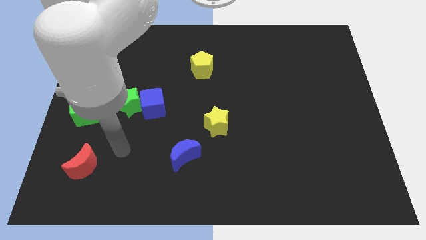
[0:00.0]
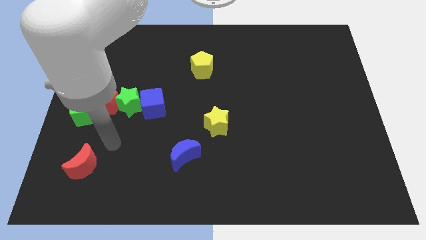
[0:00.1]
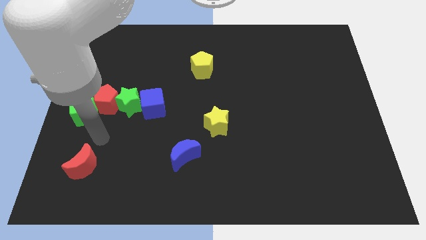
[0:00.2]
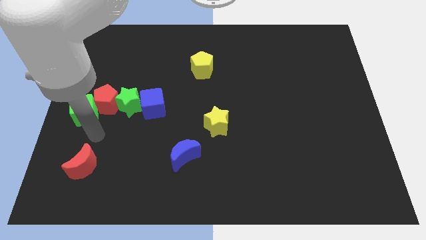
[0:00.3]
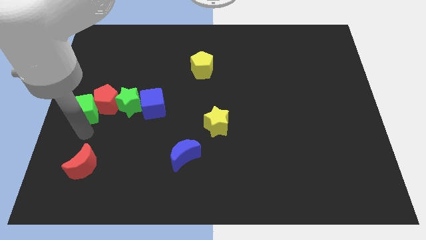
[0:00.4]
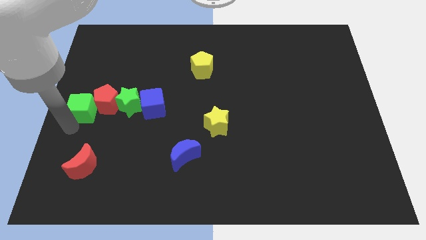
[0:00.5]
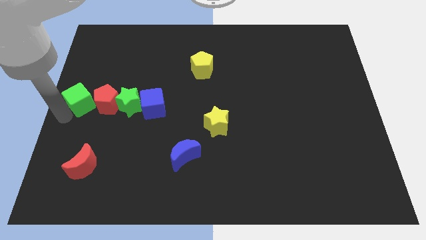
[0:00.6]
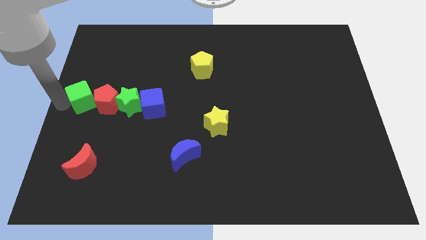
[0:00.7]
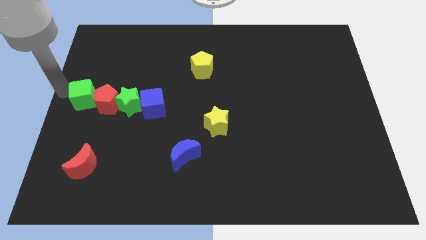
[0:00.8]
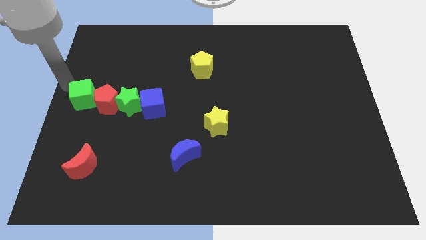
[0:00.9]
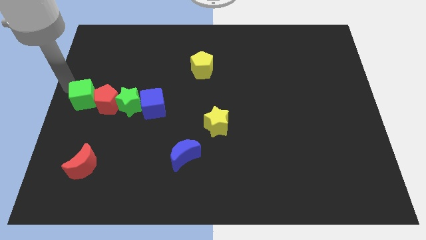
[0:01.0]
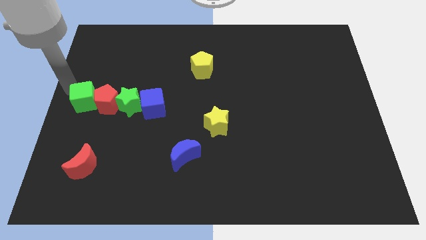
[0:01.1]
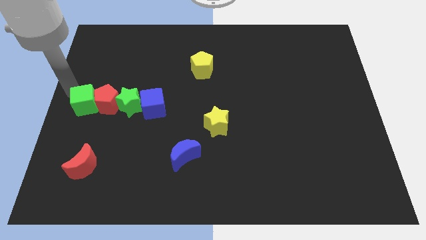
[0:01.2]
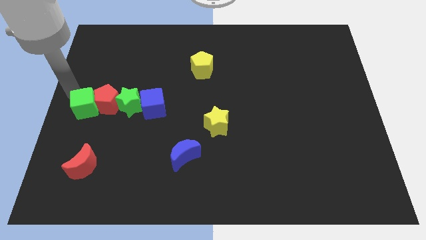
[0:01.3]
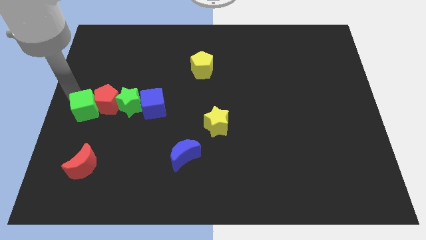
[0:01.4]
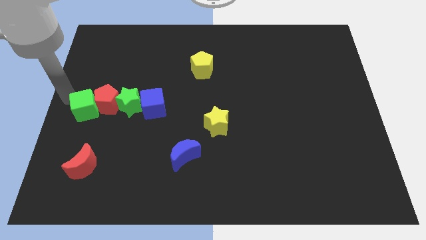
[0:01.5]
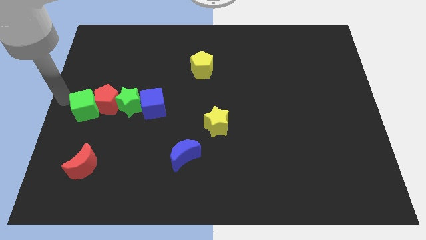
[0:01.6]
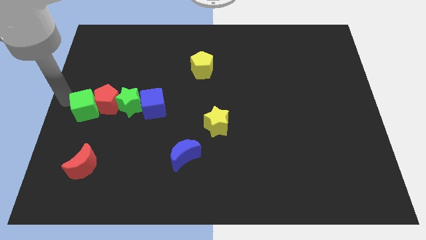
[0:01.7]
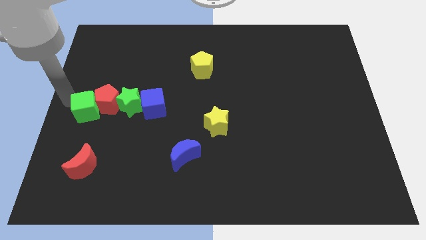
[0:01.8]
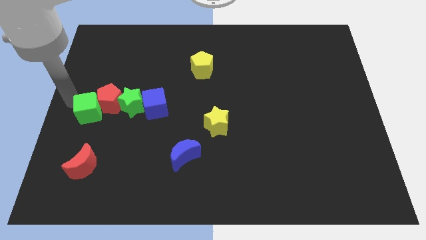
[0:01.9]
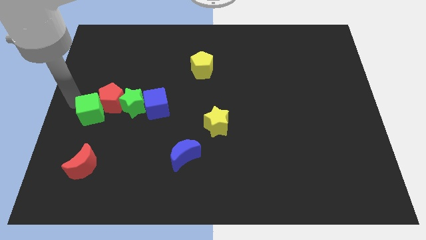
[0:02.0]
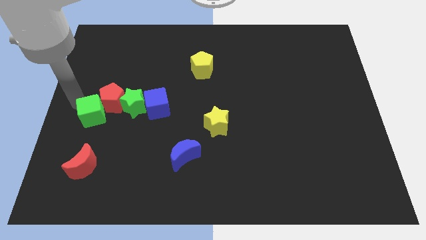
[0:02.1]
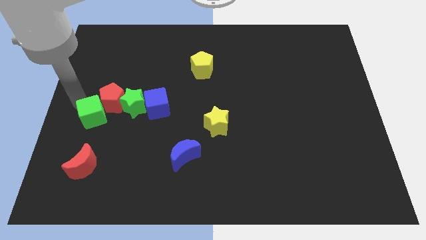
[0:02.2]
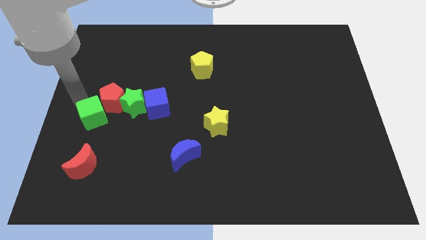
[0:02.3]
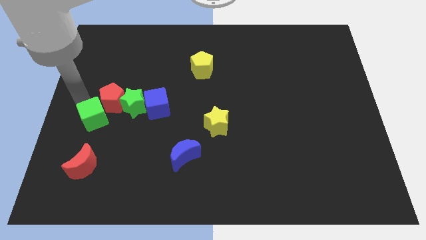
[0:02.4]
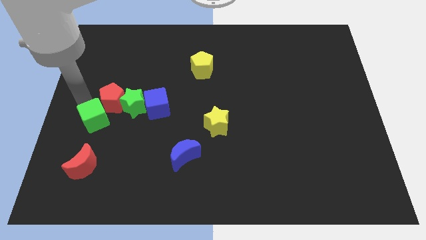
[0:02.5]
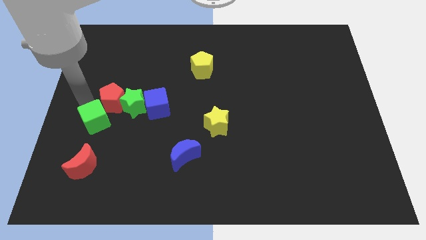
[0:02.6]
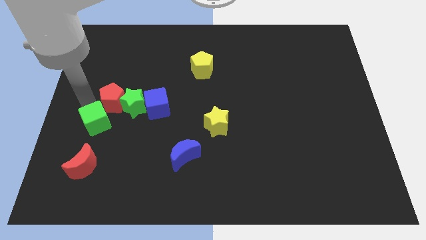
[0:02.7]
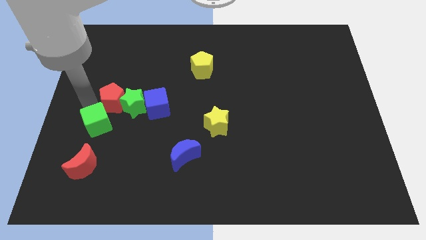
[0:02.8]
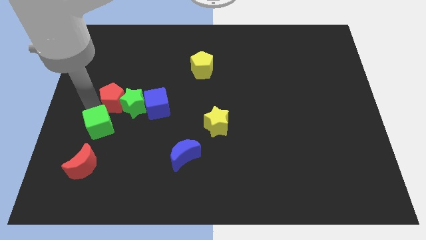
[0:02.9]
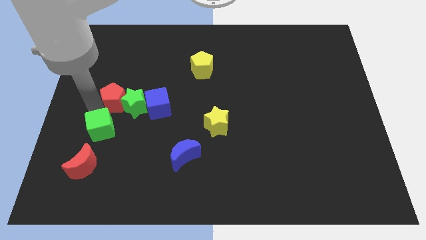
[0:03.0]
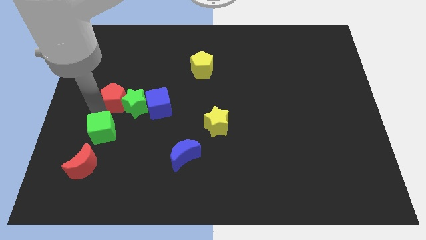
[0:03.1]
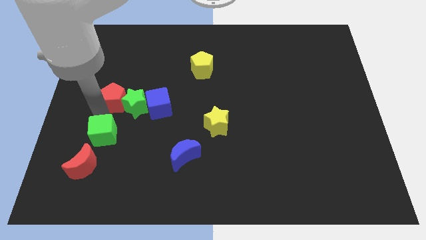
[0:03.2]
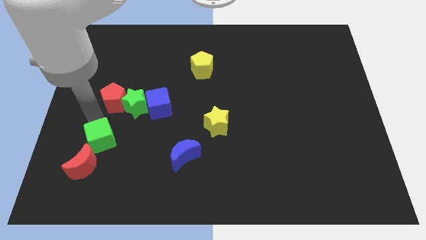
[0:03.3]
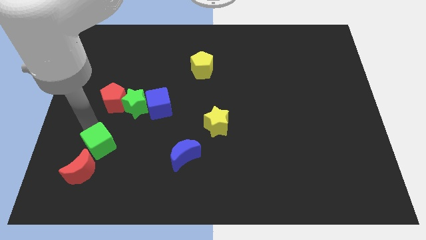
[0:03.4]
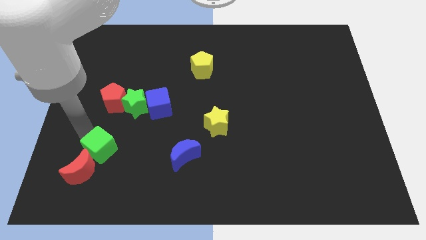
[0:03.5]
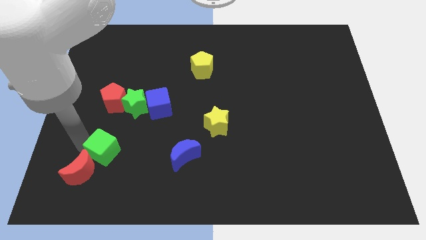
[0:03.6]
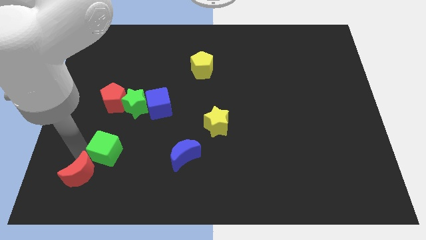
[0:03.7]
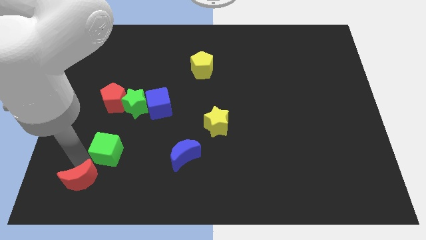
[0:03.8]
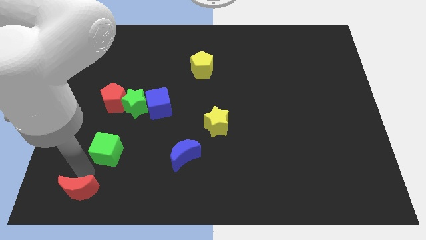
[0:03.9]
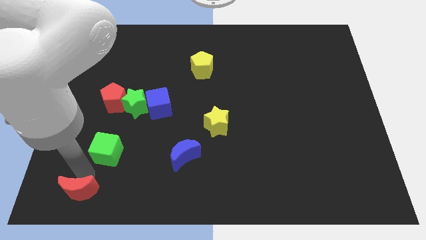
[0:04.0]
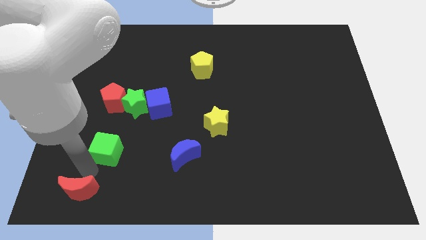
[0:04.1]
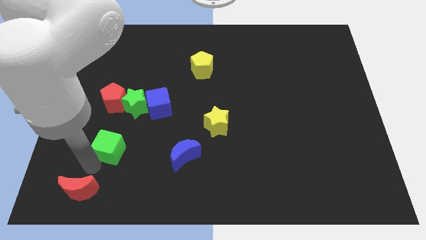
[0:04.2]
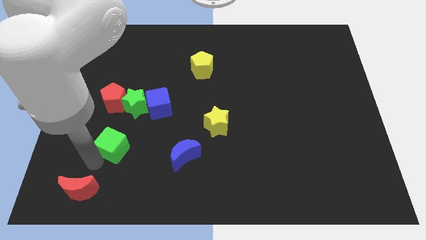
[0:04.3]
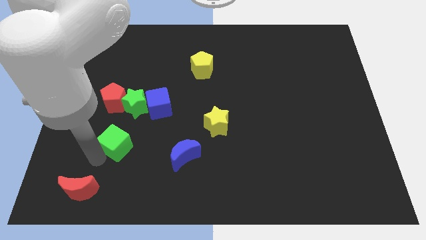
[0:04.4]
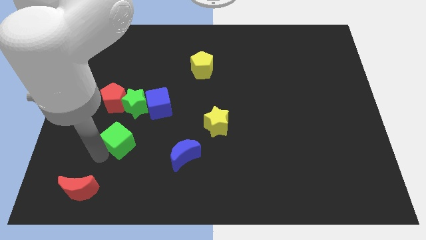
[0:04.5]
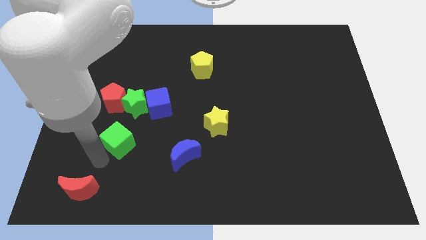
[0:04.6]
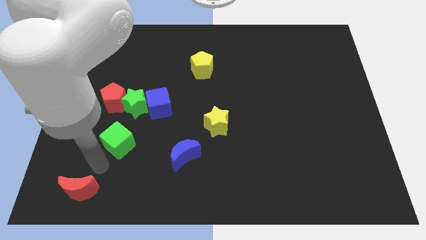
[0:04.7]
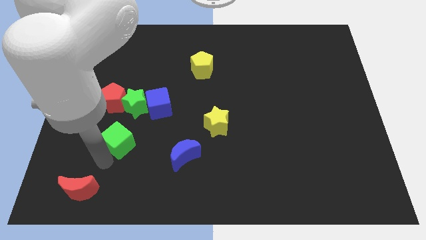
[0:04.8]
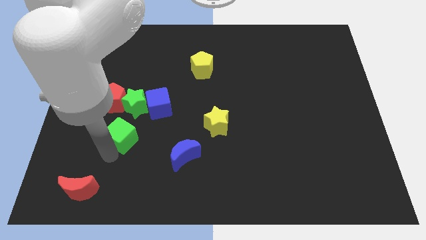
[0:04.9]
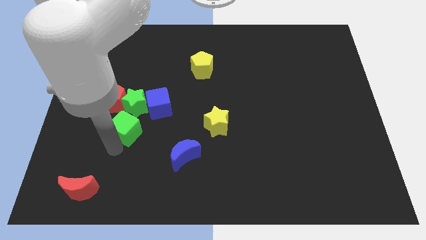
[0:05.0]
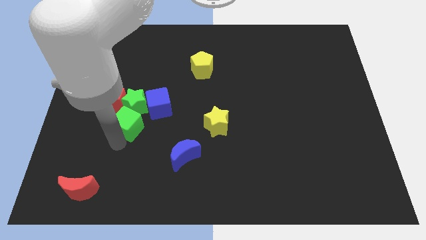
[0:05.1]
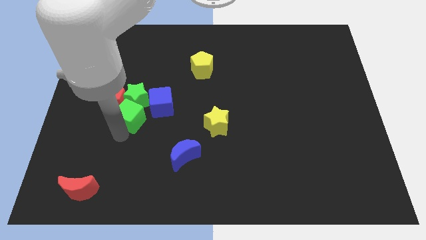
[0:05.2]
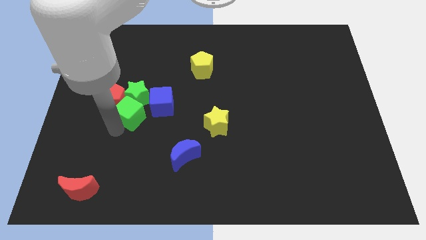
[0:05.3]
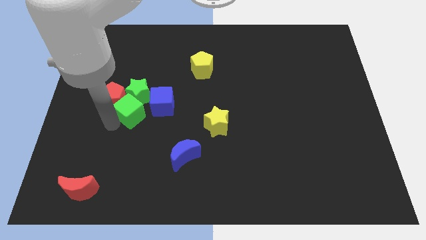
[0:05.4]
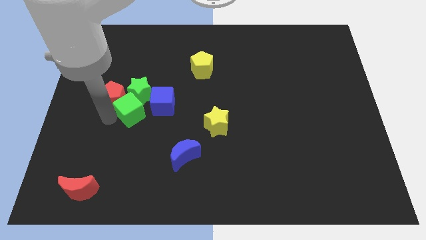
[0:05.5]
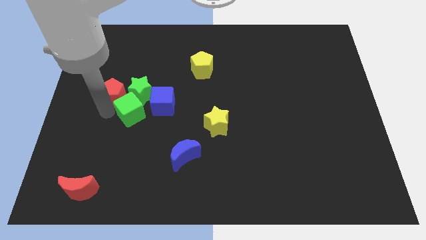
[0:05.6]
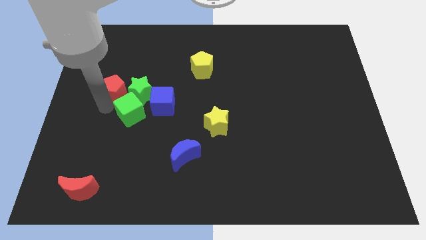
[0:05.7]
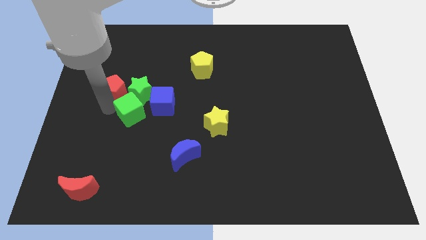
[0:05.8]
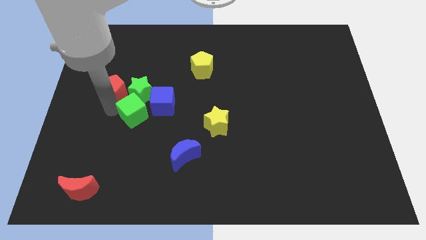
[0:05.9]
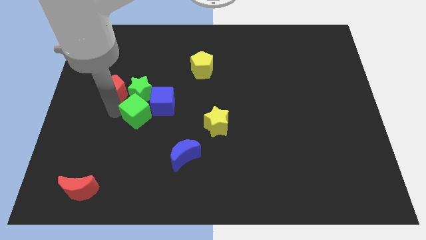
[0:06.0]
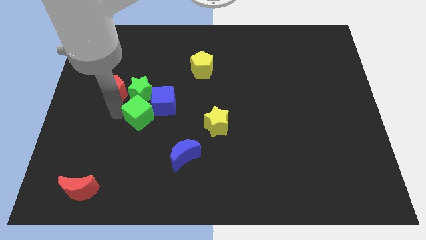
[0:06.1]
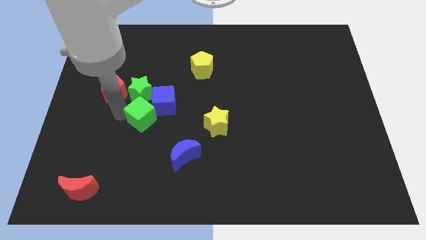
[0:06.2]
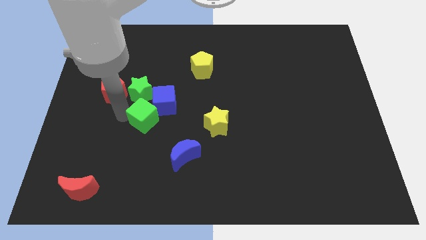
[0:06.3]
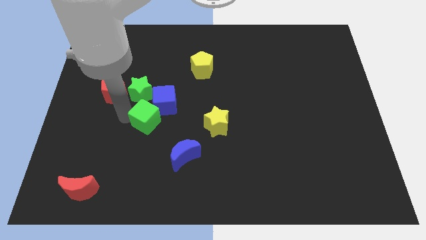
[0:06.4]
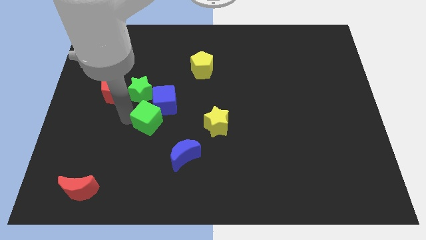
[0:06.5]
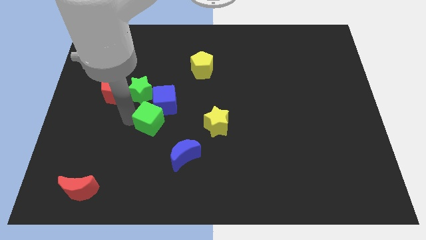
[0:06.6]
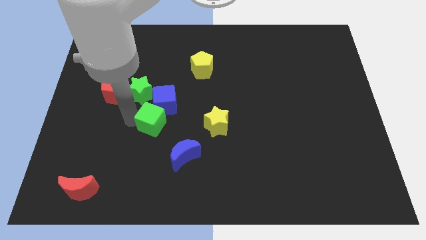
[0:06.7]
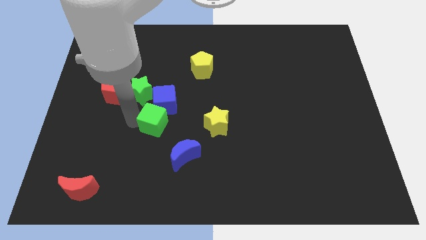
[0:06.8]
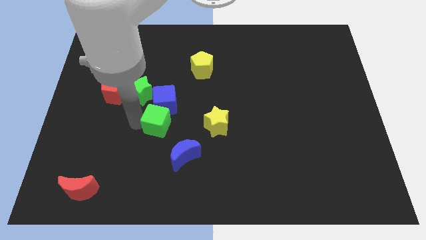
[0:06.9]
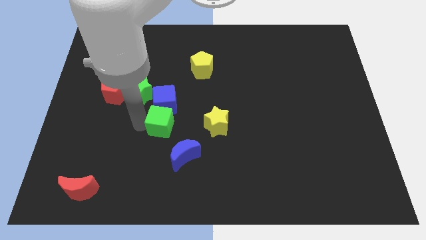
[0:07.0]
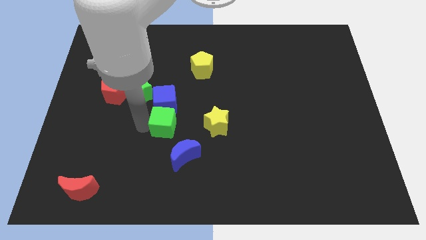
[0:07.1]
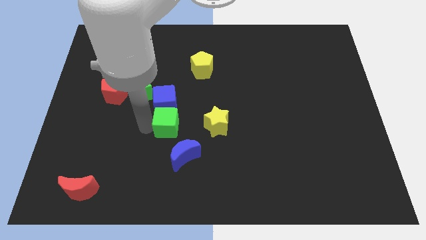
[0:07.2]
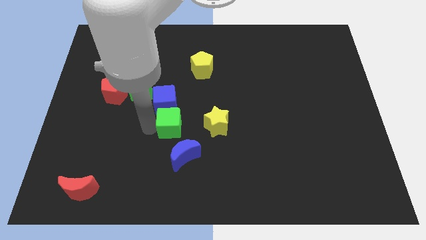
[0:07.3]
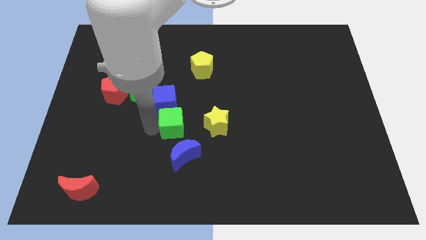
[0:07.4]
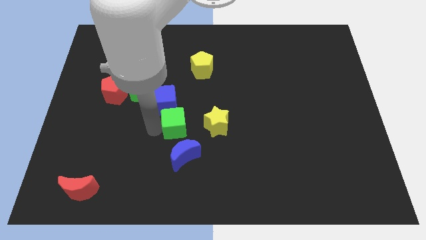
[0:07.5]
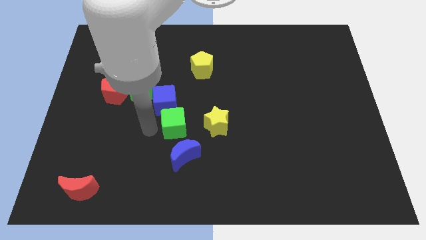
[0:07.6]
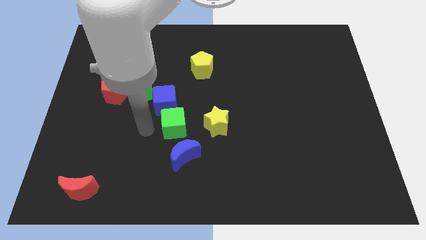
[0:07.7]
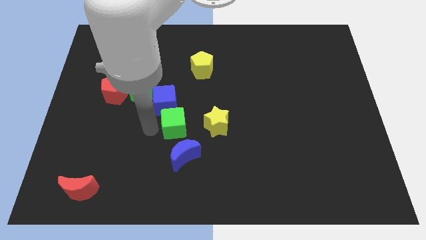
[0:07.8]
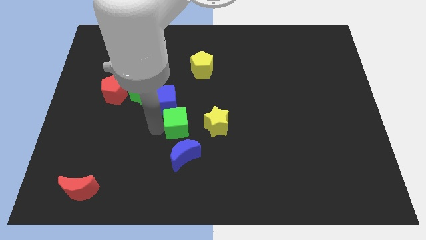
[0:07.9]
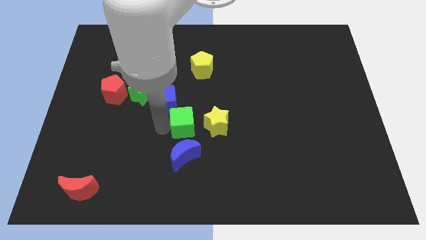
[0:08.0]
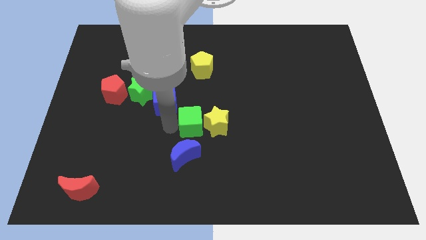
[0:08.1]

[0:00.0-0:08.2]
slide the green cube towards the yellow star

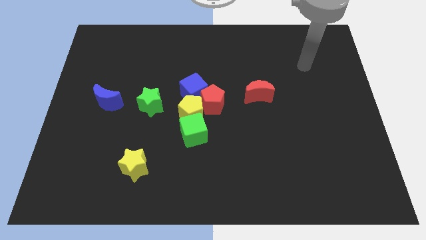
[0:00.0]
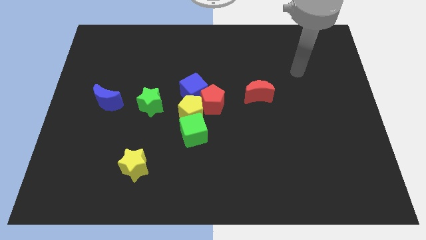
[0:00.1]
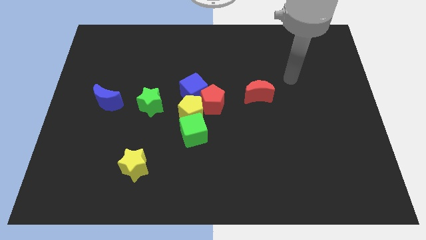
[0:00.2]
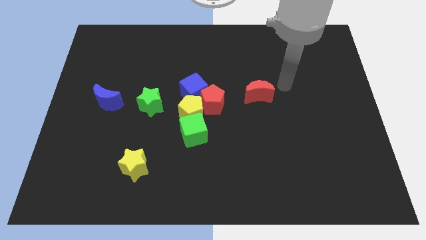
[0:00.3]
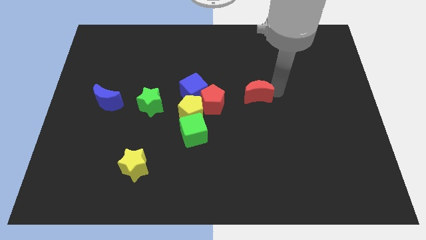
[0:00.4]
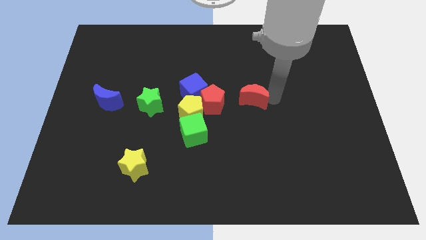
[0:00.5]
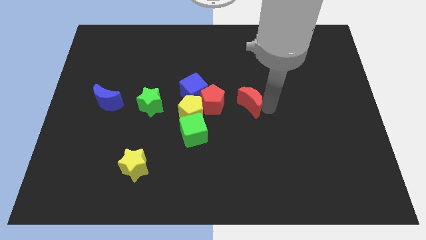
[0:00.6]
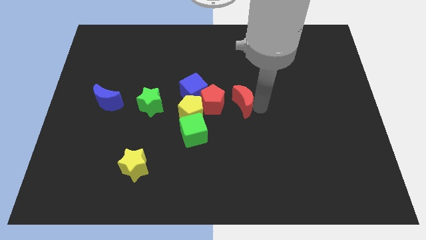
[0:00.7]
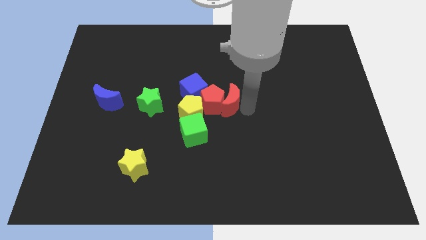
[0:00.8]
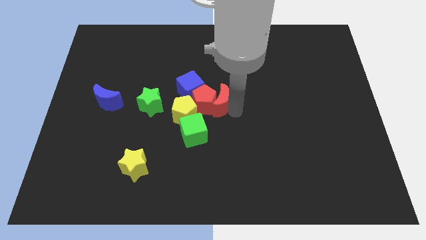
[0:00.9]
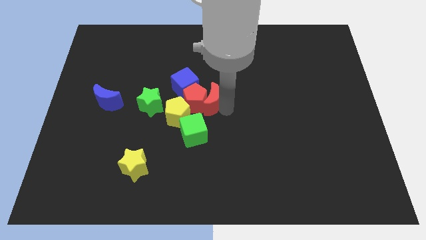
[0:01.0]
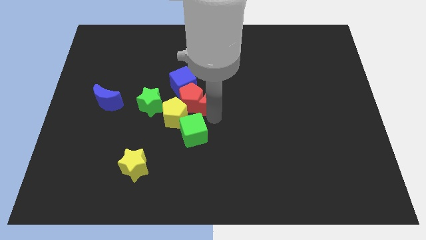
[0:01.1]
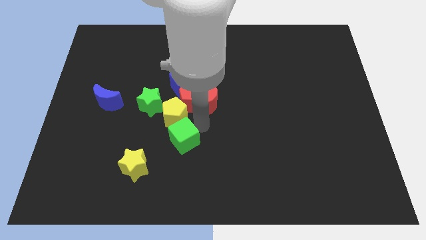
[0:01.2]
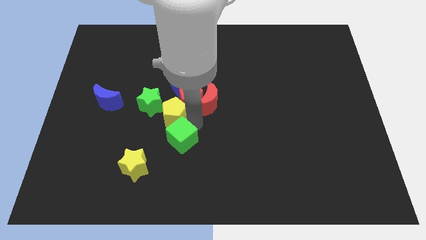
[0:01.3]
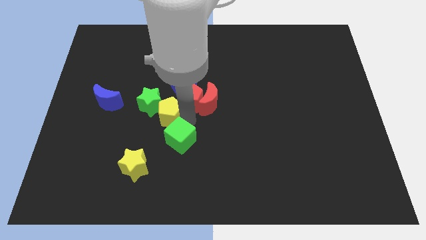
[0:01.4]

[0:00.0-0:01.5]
move the yellow pentagon next to the green star
